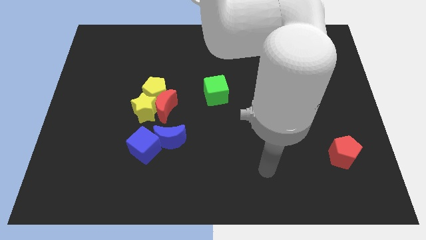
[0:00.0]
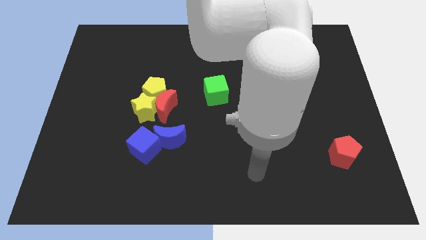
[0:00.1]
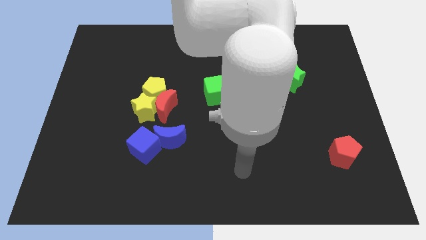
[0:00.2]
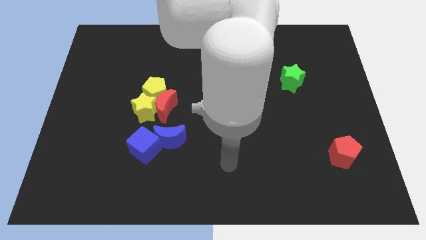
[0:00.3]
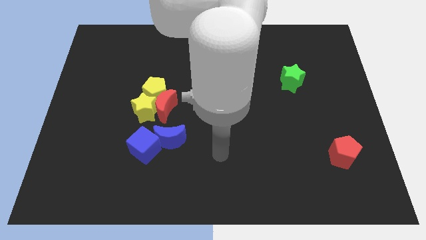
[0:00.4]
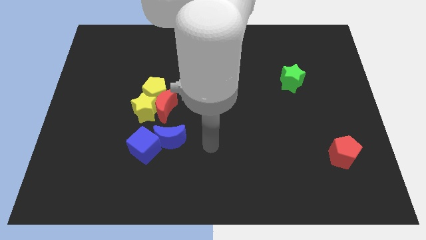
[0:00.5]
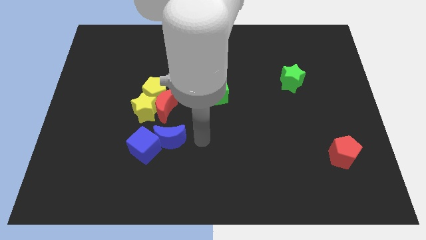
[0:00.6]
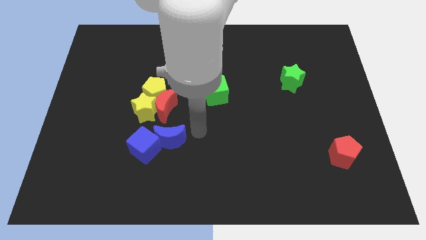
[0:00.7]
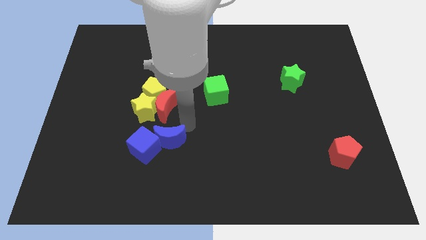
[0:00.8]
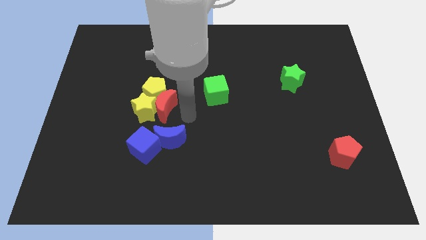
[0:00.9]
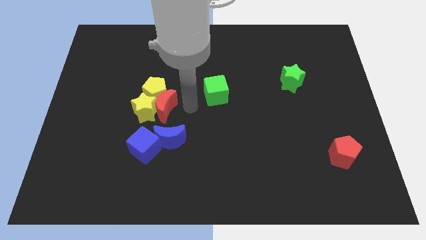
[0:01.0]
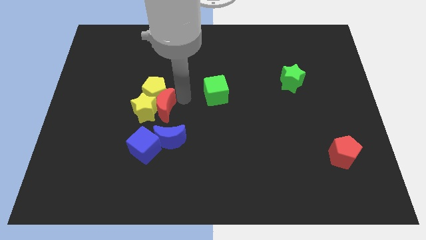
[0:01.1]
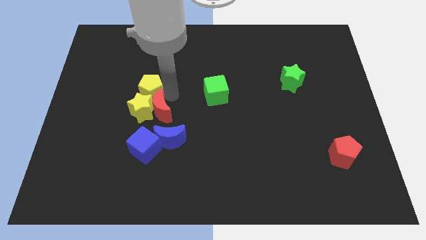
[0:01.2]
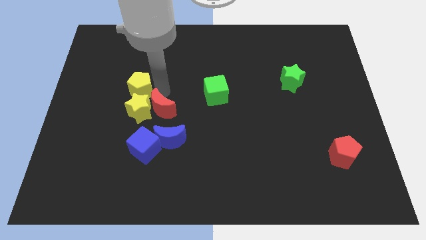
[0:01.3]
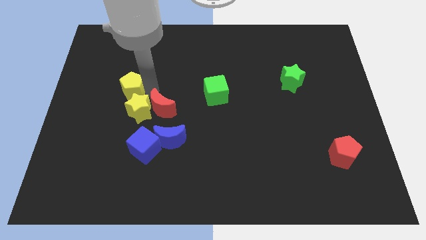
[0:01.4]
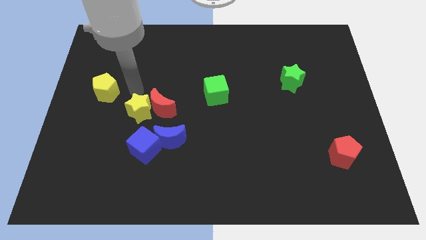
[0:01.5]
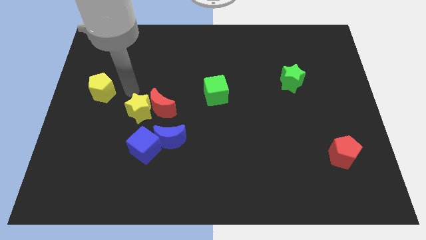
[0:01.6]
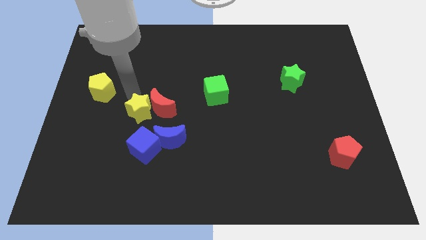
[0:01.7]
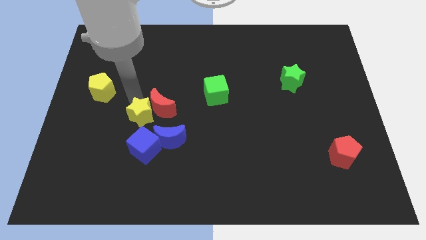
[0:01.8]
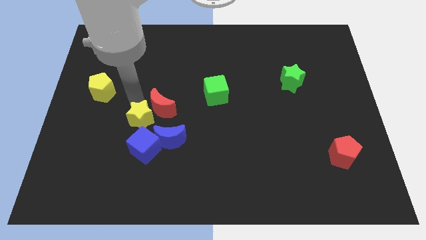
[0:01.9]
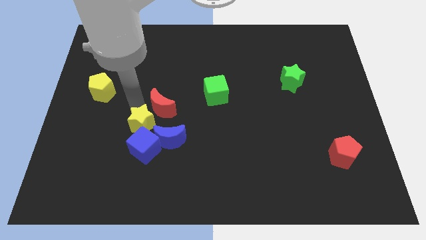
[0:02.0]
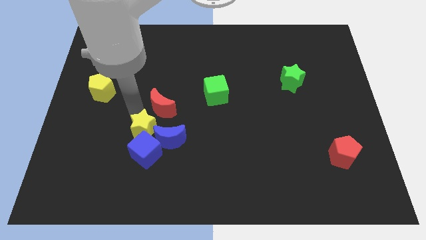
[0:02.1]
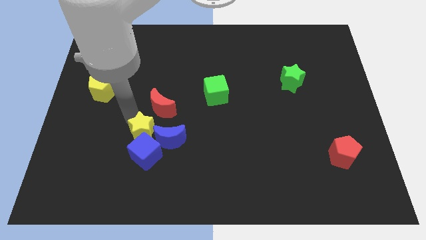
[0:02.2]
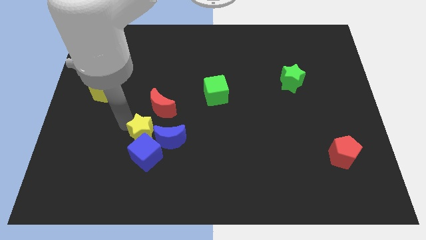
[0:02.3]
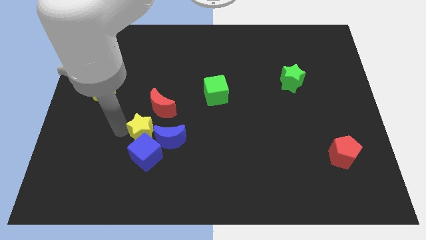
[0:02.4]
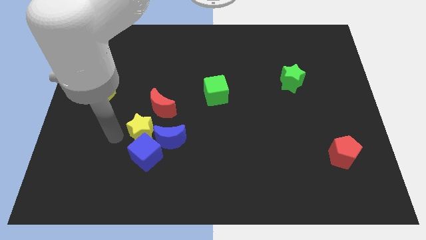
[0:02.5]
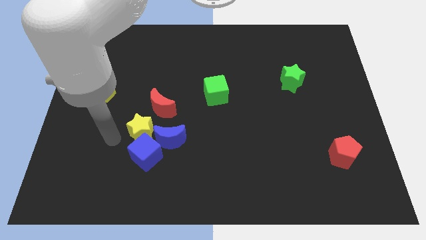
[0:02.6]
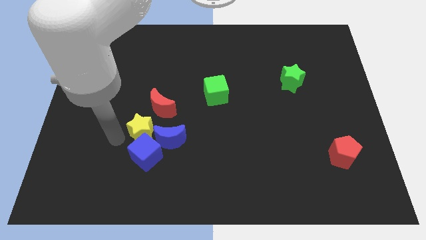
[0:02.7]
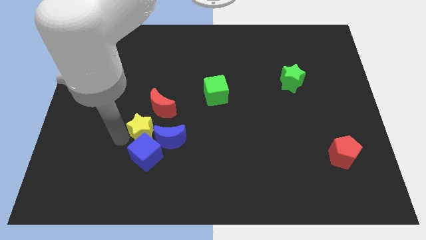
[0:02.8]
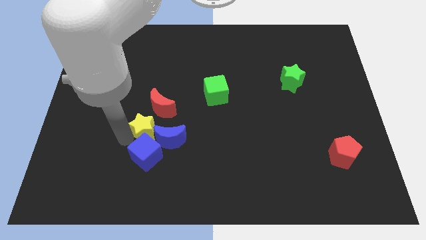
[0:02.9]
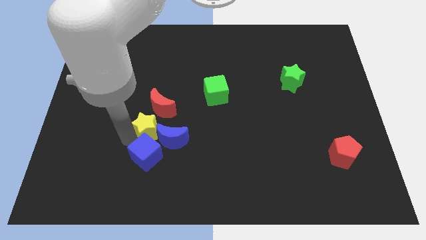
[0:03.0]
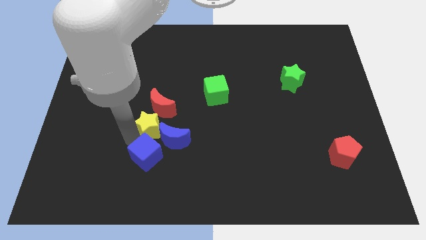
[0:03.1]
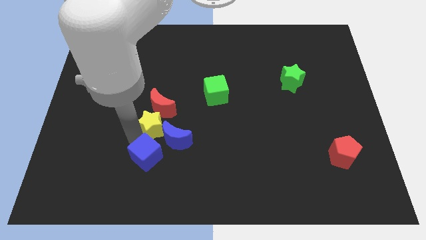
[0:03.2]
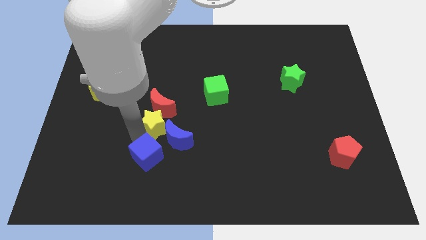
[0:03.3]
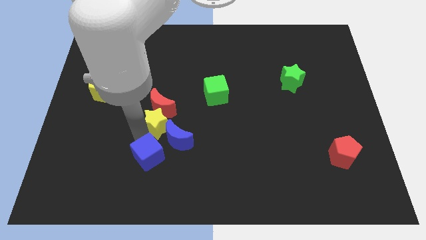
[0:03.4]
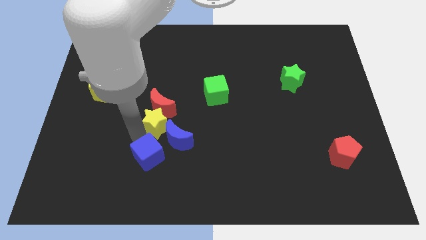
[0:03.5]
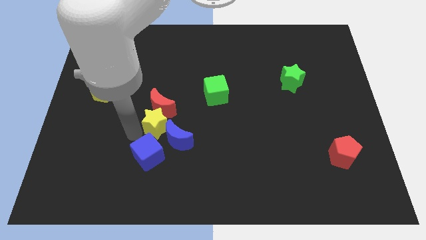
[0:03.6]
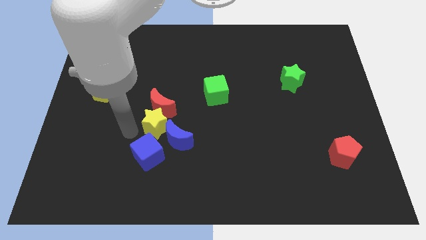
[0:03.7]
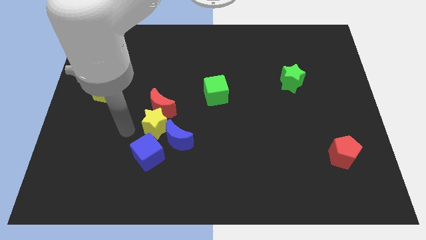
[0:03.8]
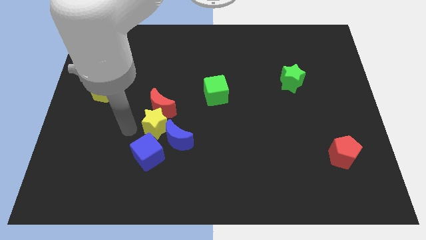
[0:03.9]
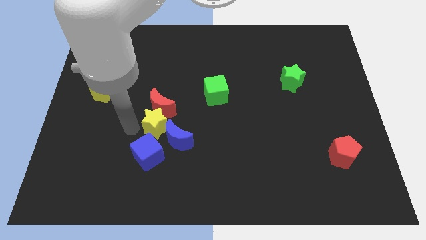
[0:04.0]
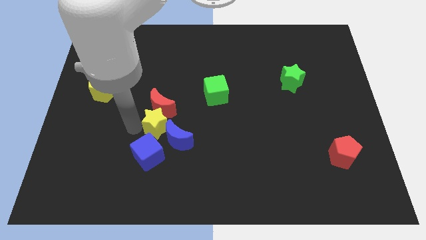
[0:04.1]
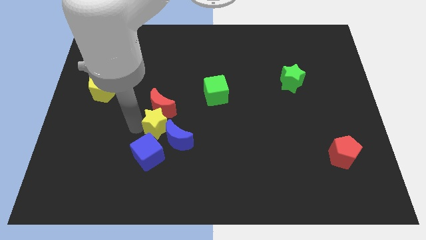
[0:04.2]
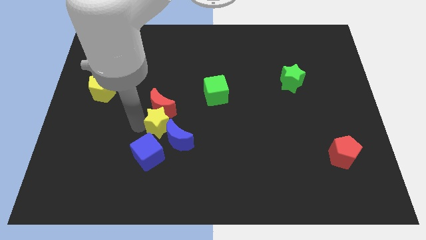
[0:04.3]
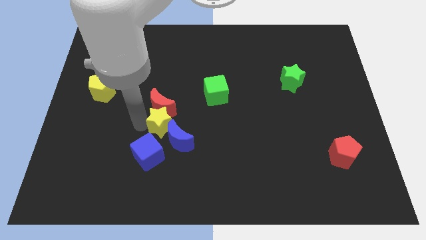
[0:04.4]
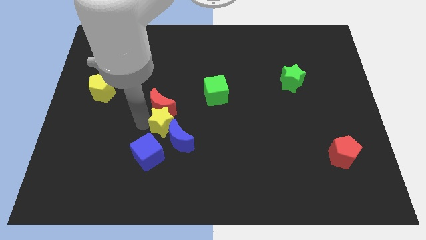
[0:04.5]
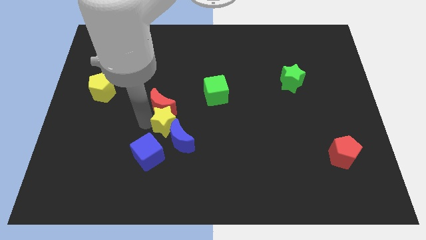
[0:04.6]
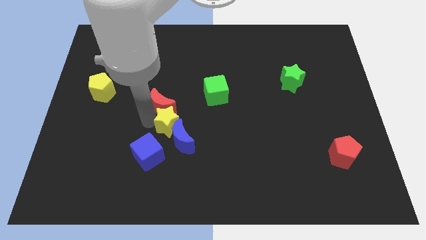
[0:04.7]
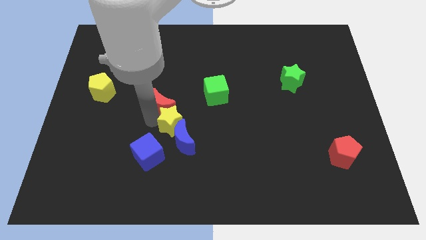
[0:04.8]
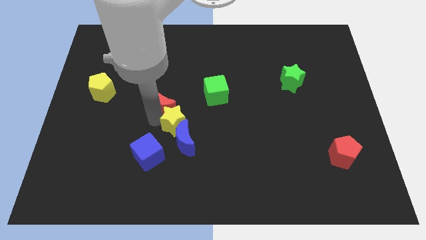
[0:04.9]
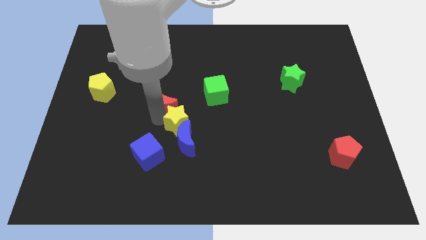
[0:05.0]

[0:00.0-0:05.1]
slide the yellow star right slightly

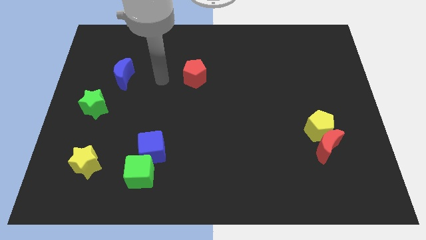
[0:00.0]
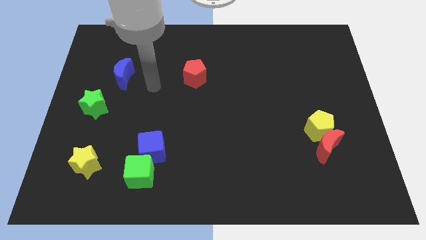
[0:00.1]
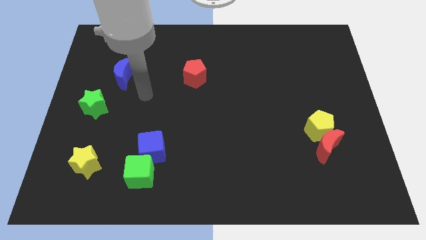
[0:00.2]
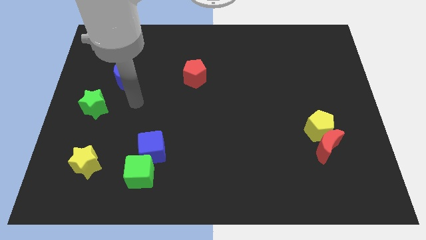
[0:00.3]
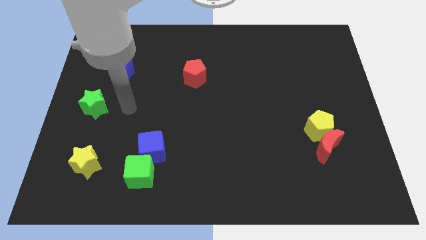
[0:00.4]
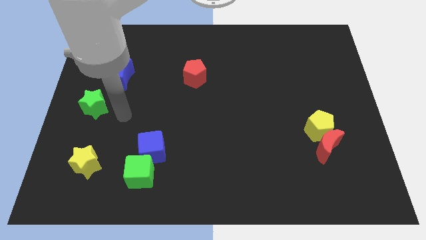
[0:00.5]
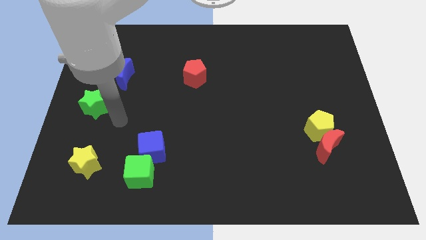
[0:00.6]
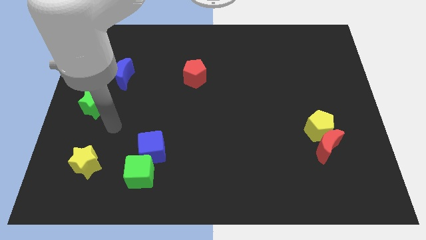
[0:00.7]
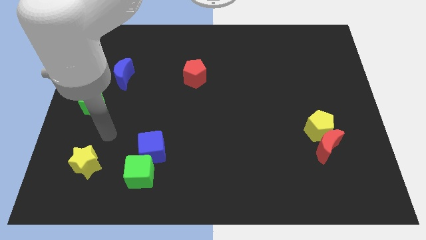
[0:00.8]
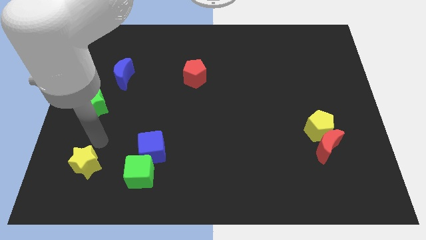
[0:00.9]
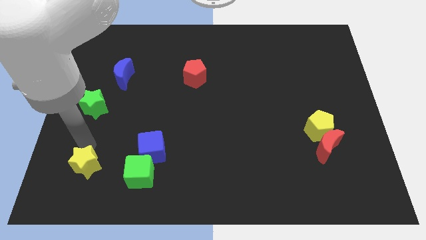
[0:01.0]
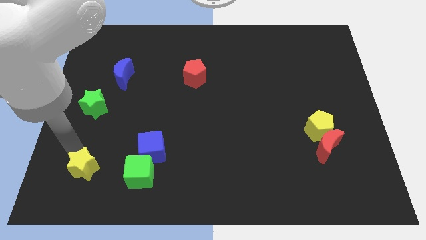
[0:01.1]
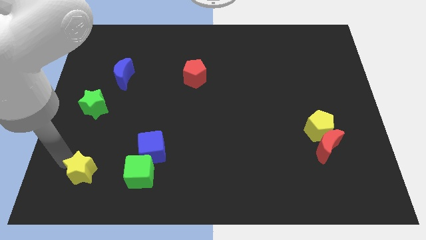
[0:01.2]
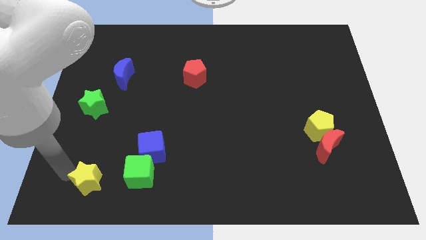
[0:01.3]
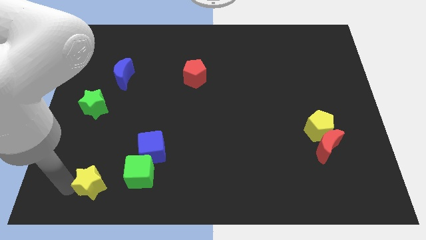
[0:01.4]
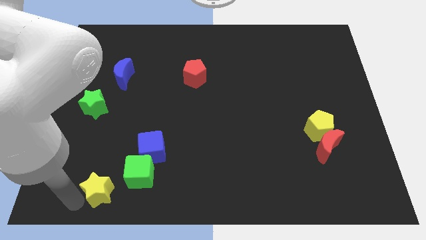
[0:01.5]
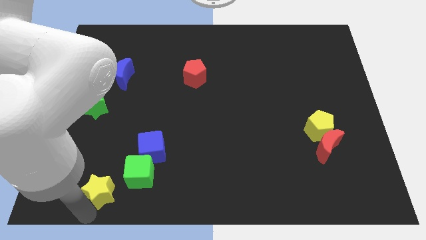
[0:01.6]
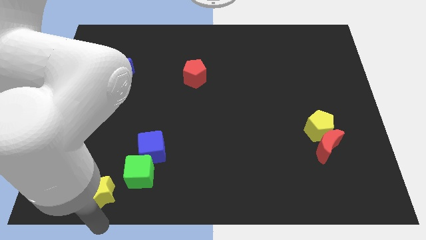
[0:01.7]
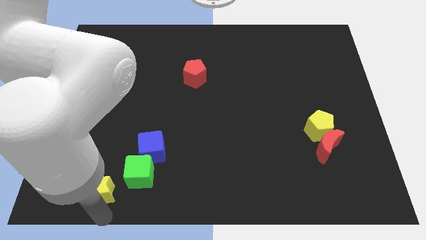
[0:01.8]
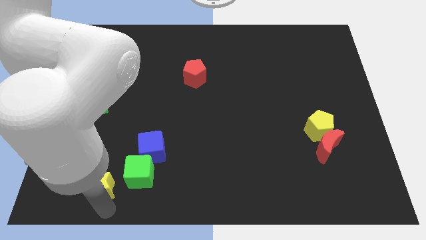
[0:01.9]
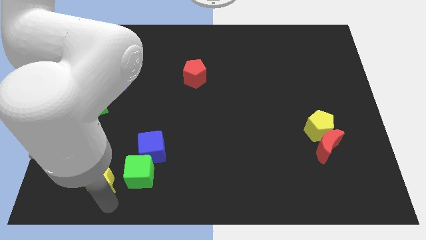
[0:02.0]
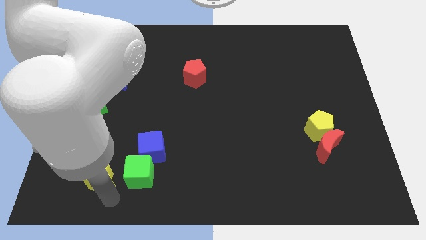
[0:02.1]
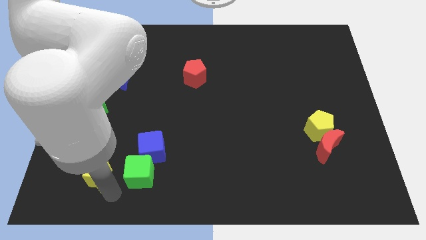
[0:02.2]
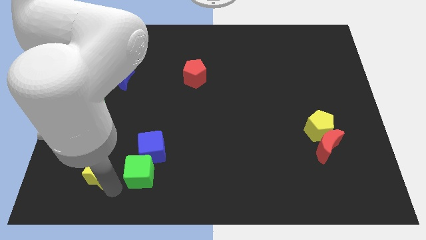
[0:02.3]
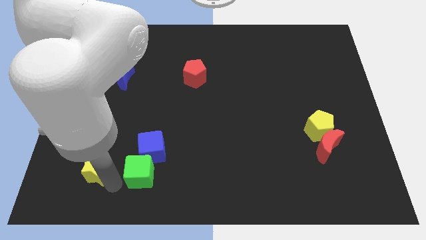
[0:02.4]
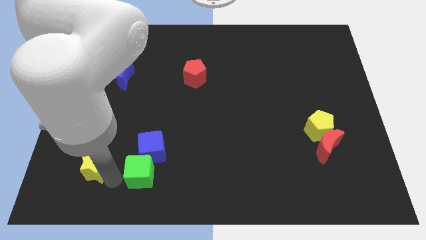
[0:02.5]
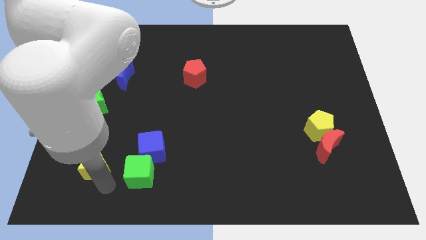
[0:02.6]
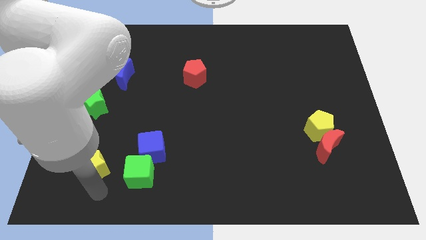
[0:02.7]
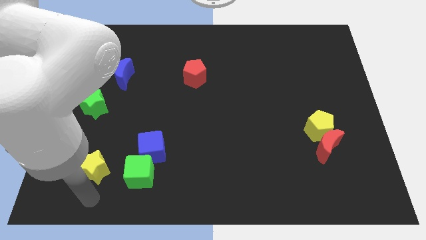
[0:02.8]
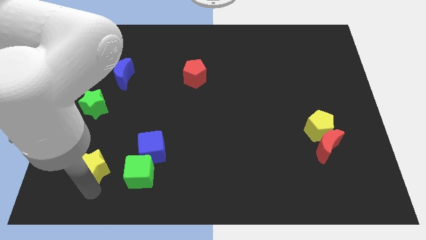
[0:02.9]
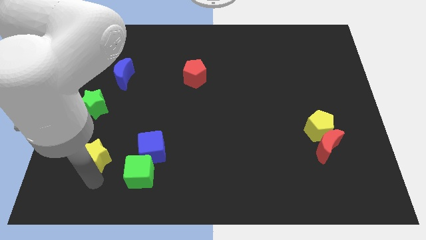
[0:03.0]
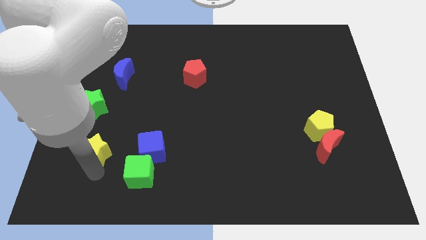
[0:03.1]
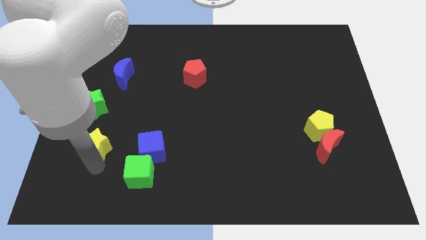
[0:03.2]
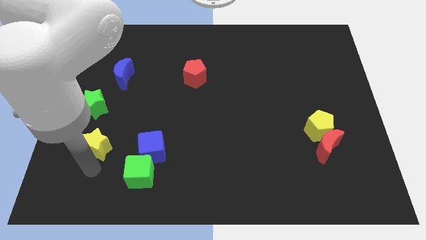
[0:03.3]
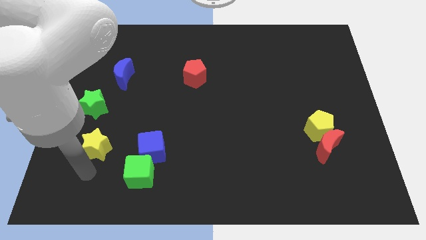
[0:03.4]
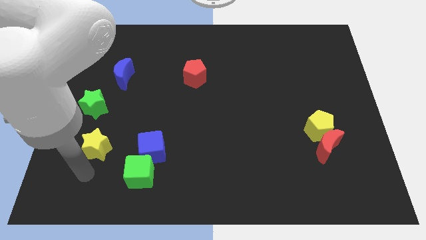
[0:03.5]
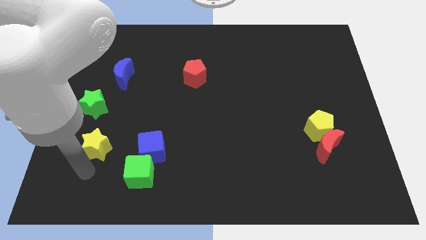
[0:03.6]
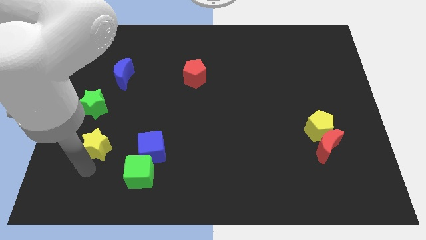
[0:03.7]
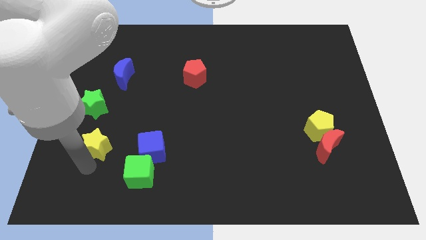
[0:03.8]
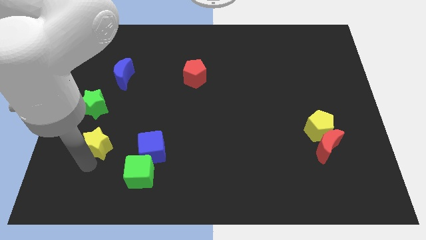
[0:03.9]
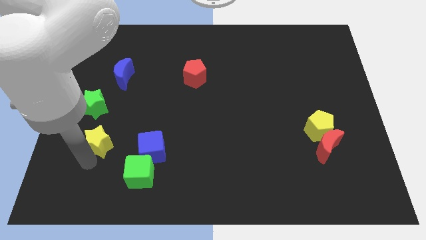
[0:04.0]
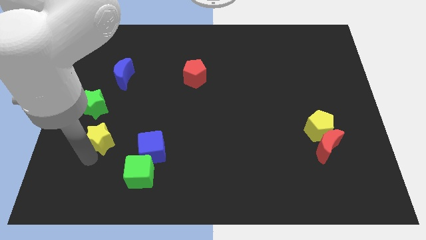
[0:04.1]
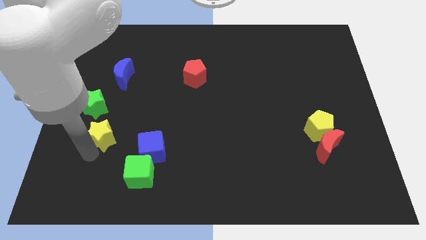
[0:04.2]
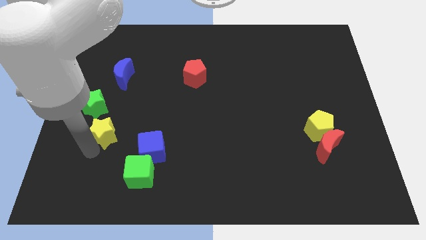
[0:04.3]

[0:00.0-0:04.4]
move the yellow star a bit upwards
